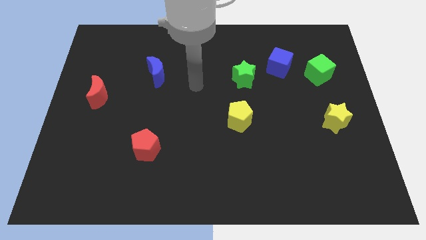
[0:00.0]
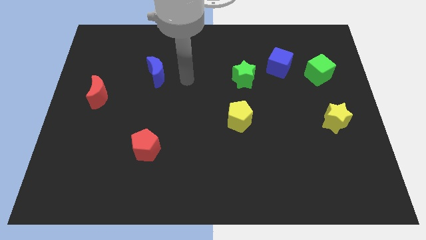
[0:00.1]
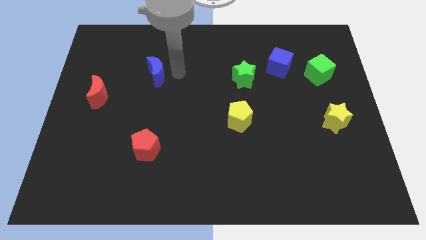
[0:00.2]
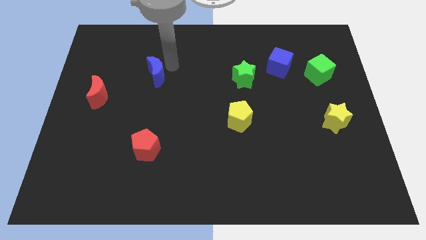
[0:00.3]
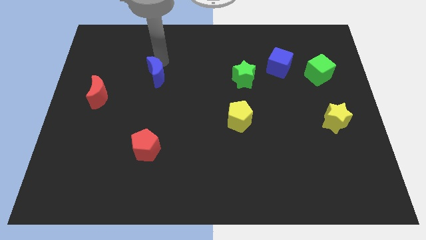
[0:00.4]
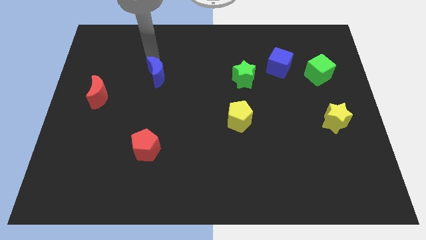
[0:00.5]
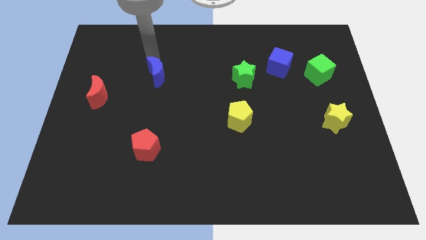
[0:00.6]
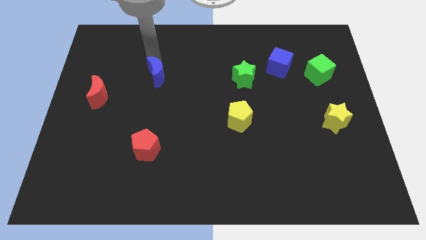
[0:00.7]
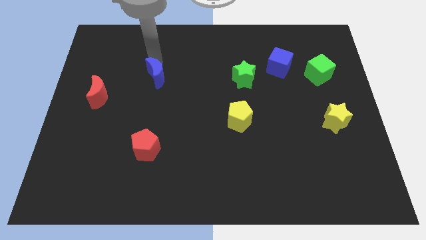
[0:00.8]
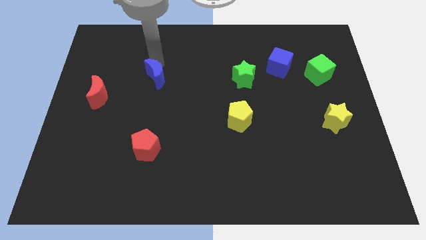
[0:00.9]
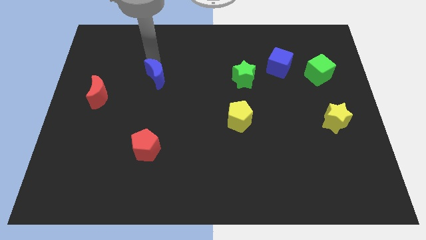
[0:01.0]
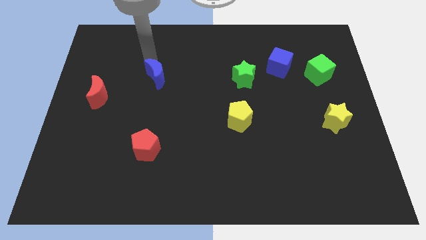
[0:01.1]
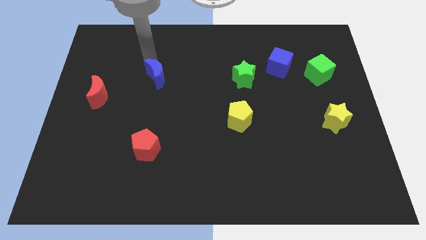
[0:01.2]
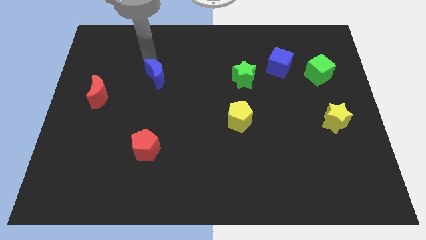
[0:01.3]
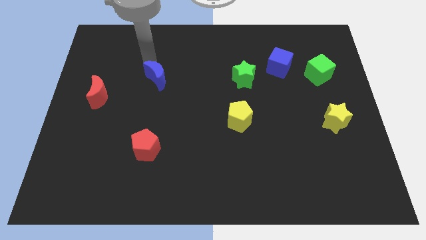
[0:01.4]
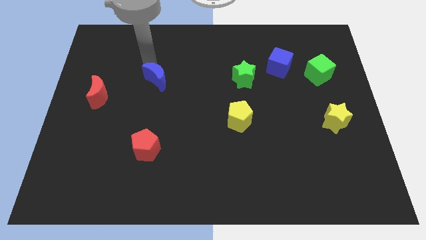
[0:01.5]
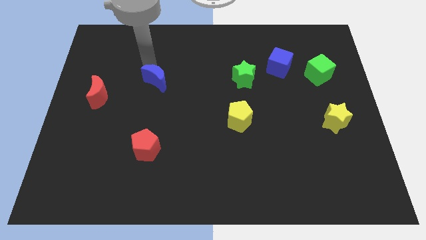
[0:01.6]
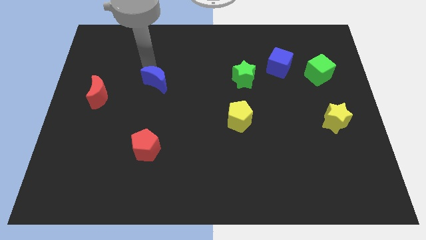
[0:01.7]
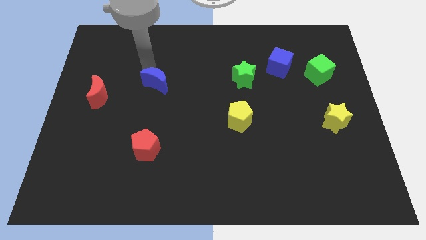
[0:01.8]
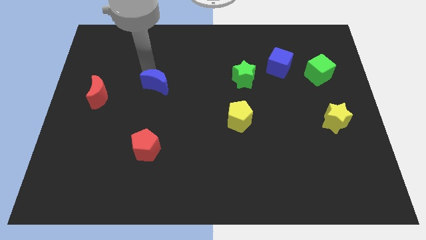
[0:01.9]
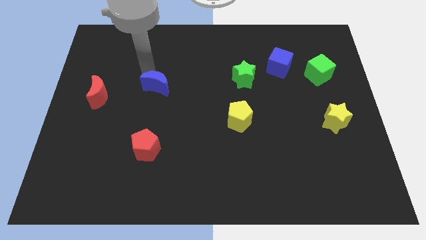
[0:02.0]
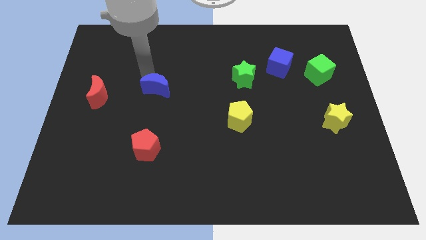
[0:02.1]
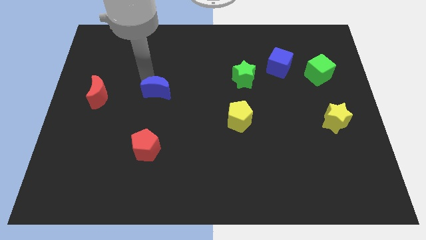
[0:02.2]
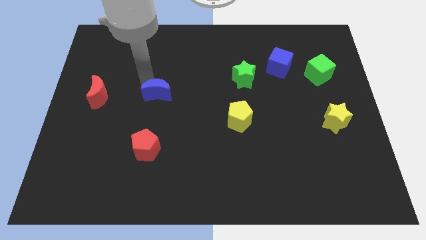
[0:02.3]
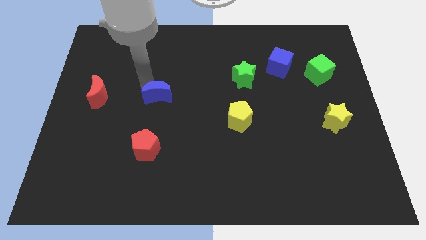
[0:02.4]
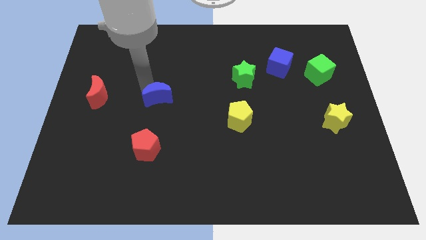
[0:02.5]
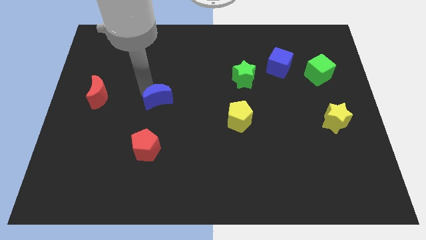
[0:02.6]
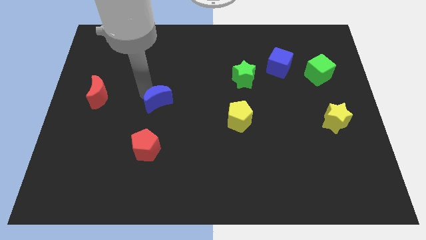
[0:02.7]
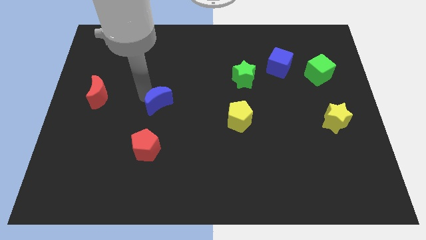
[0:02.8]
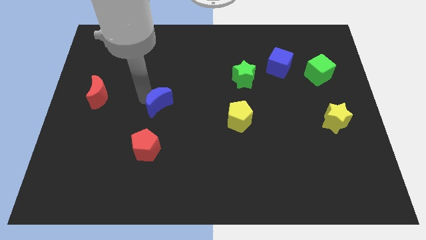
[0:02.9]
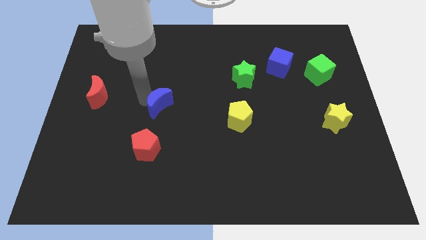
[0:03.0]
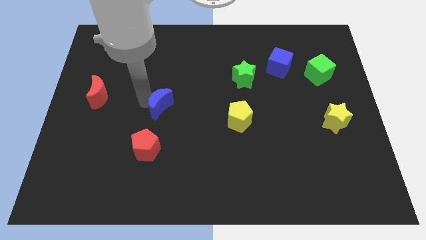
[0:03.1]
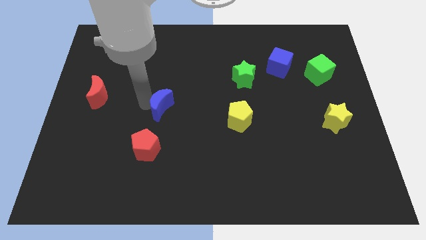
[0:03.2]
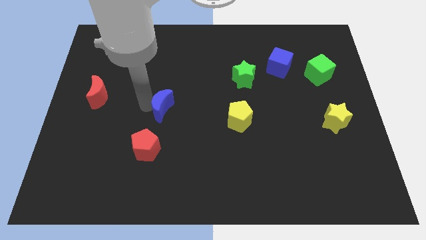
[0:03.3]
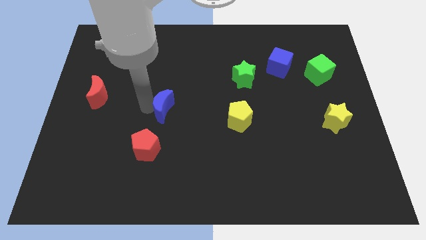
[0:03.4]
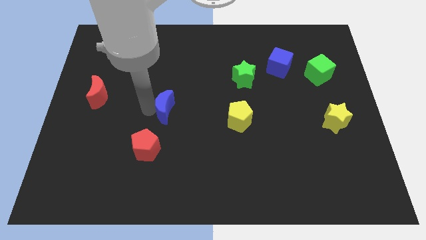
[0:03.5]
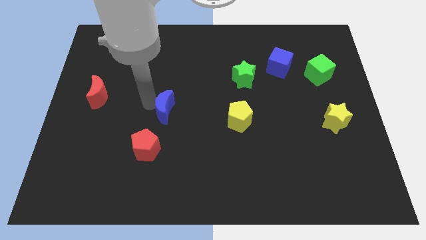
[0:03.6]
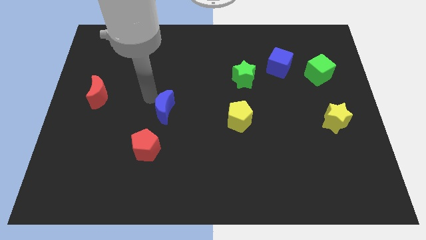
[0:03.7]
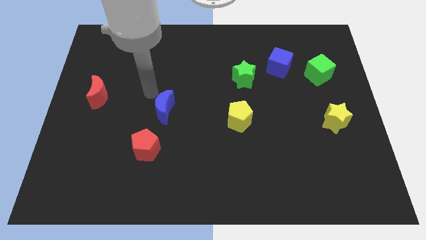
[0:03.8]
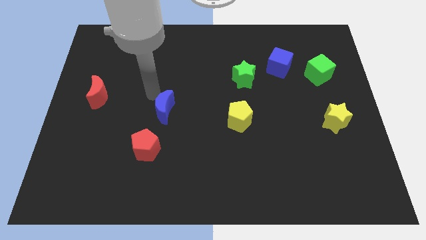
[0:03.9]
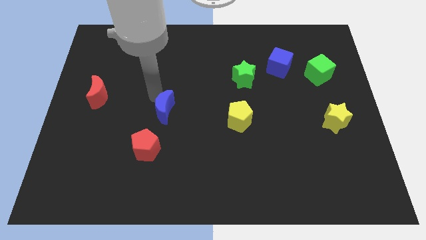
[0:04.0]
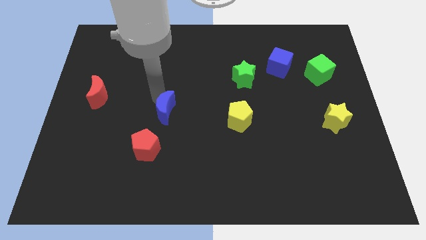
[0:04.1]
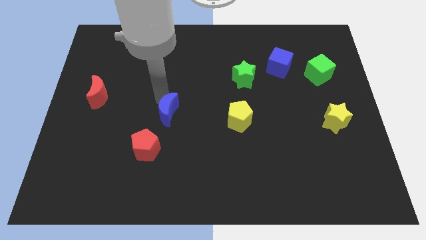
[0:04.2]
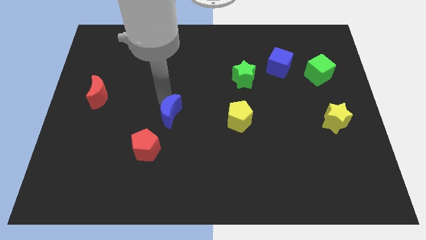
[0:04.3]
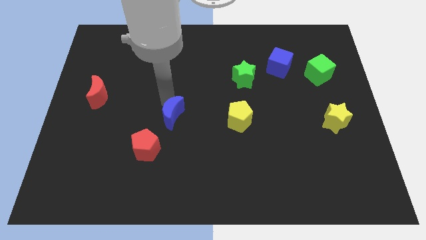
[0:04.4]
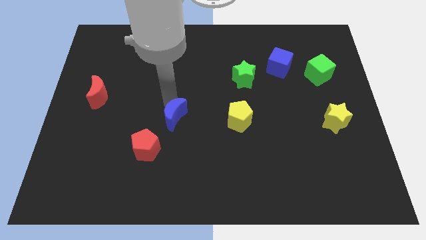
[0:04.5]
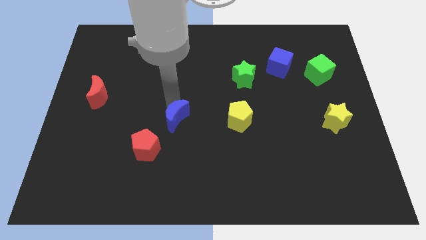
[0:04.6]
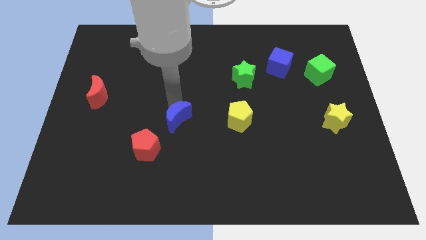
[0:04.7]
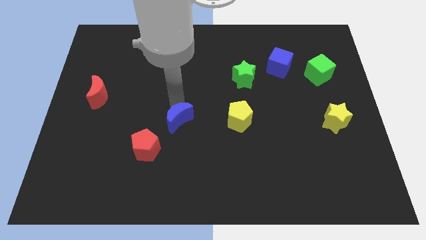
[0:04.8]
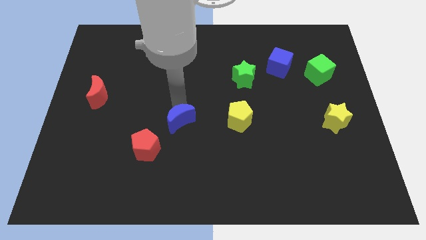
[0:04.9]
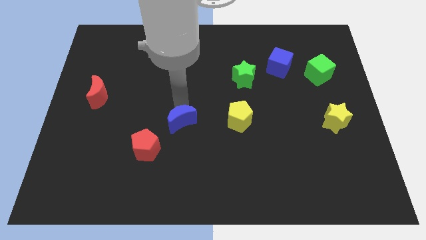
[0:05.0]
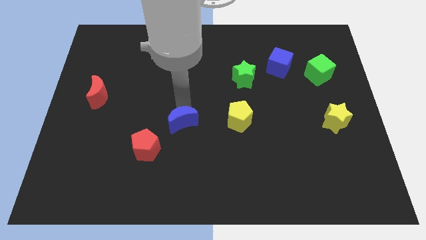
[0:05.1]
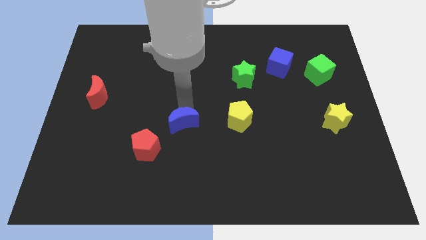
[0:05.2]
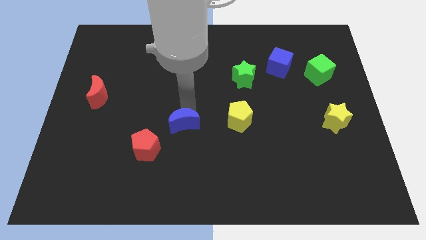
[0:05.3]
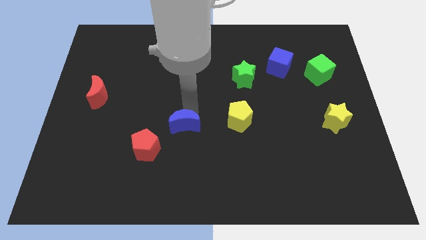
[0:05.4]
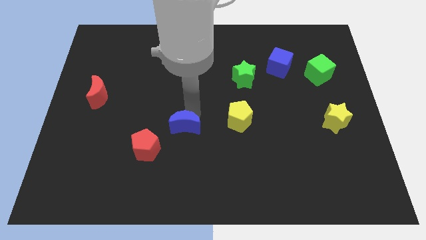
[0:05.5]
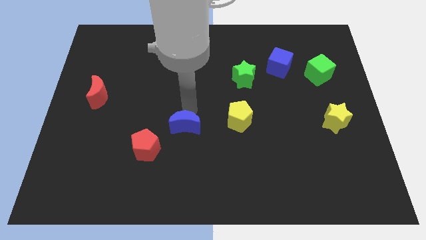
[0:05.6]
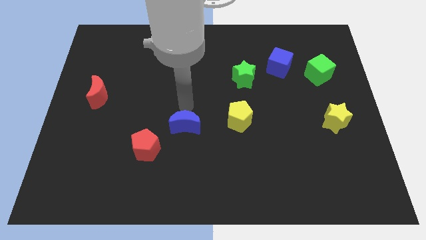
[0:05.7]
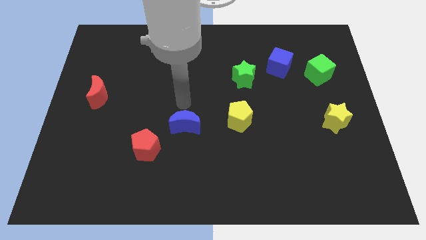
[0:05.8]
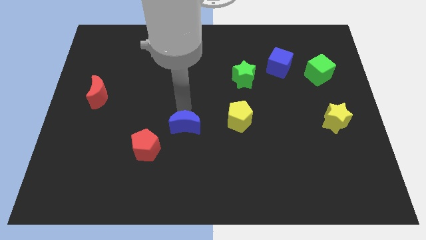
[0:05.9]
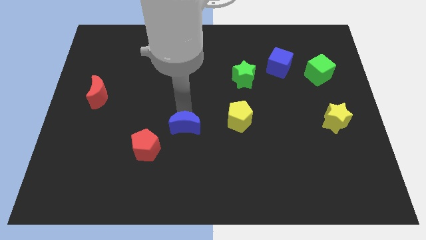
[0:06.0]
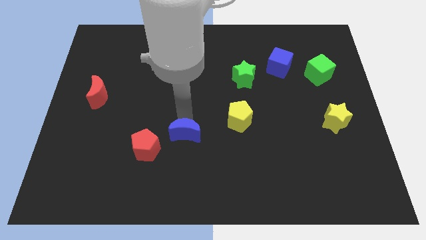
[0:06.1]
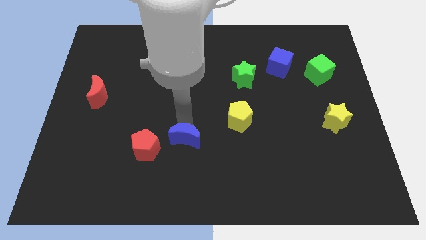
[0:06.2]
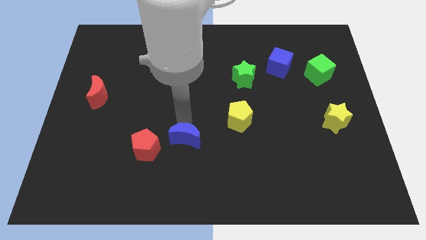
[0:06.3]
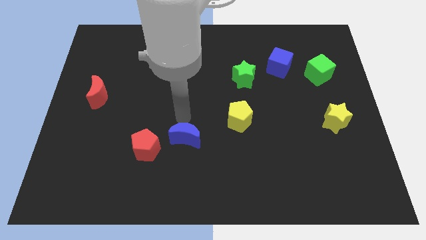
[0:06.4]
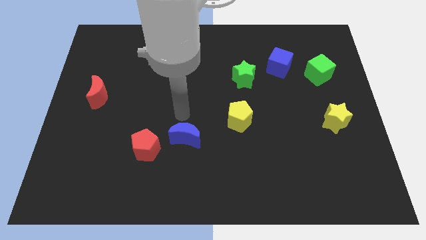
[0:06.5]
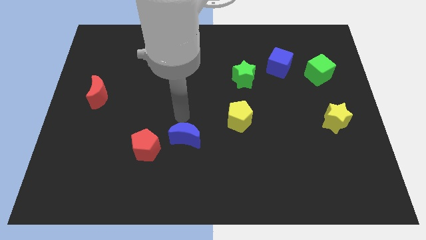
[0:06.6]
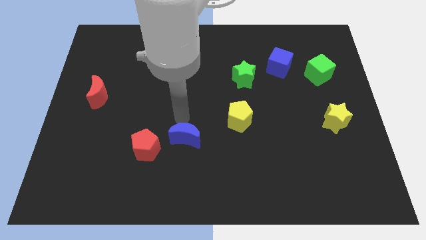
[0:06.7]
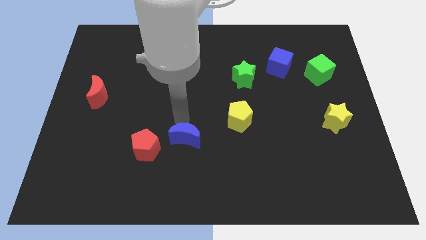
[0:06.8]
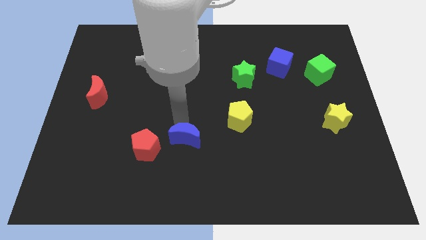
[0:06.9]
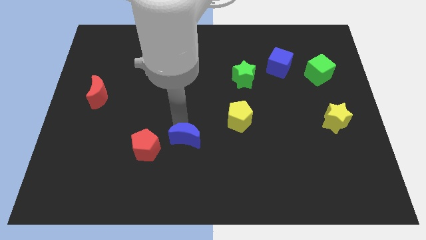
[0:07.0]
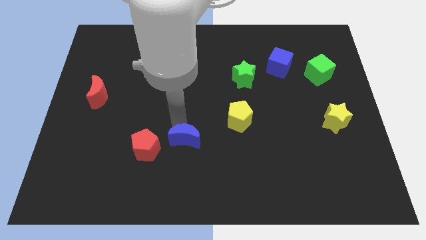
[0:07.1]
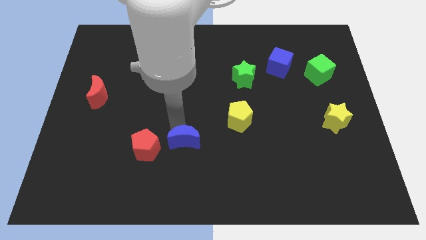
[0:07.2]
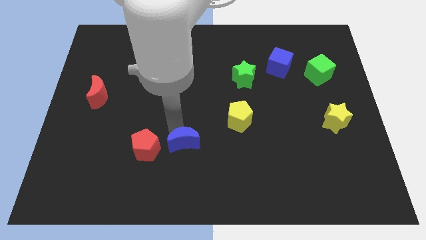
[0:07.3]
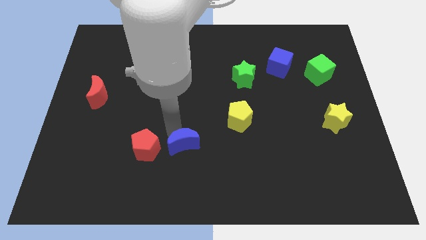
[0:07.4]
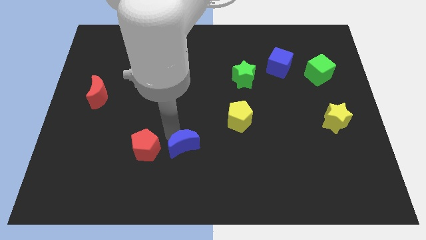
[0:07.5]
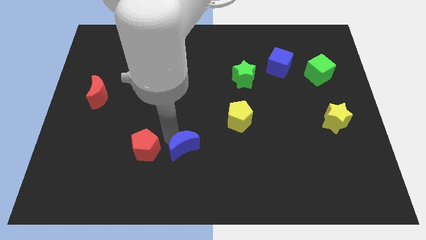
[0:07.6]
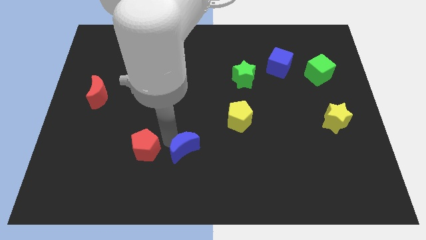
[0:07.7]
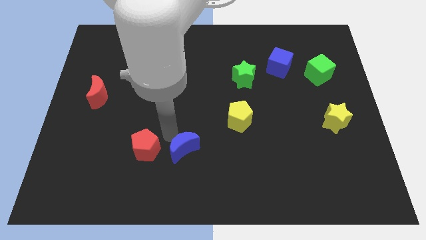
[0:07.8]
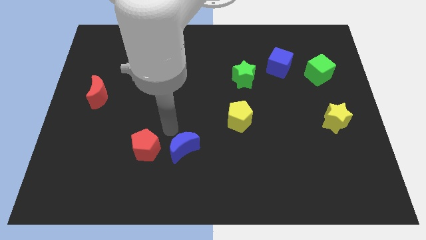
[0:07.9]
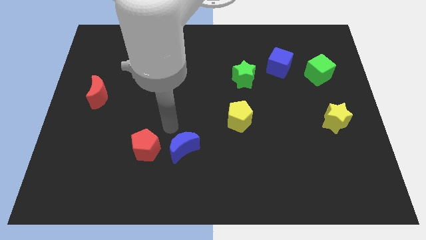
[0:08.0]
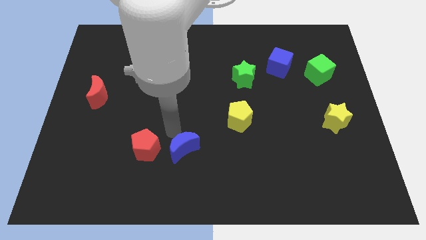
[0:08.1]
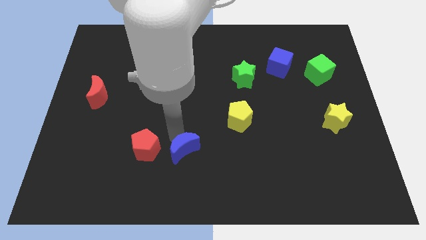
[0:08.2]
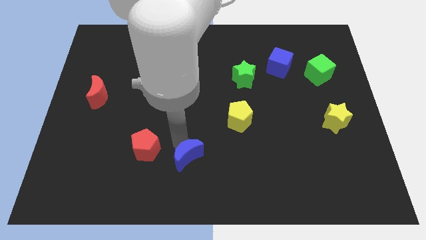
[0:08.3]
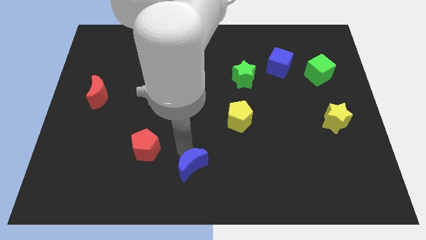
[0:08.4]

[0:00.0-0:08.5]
put the blue moon to the bottom
